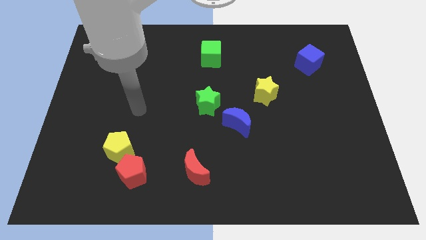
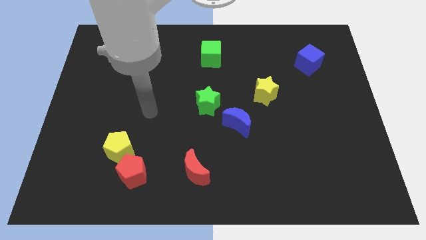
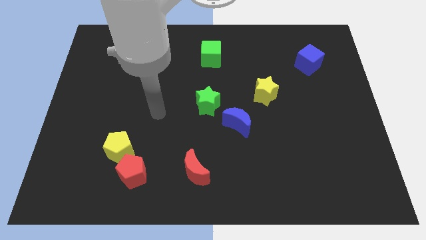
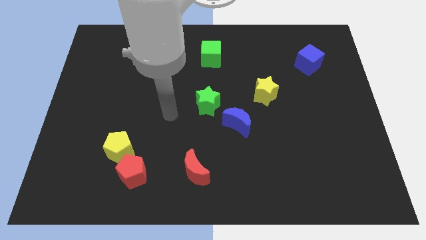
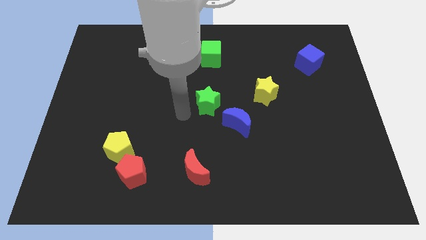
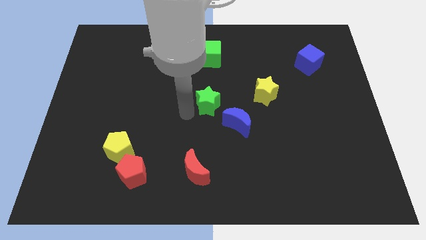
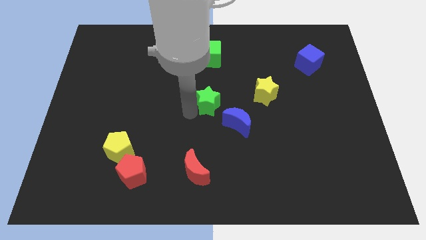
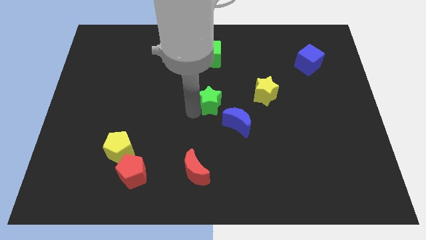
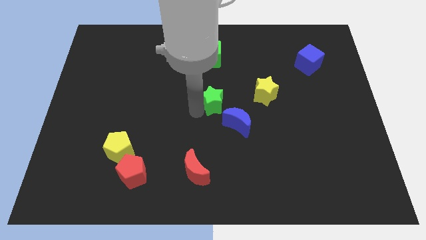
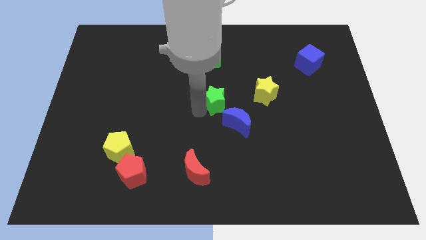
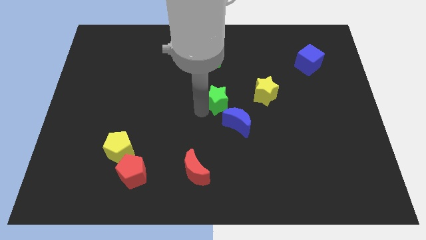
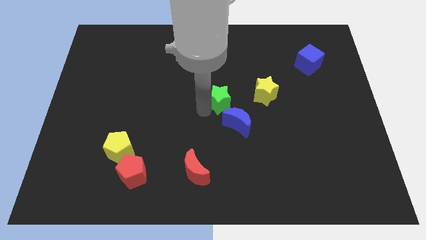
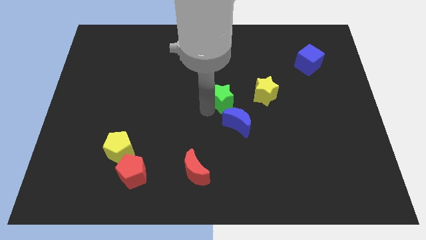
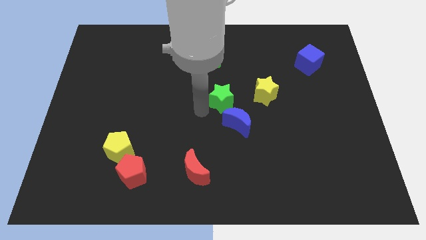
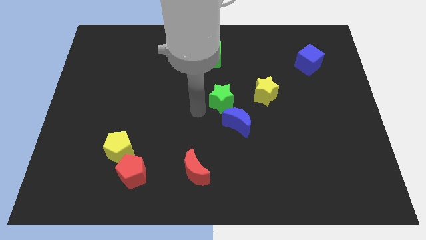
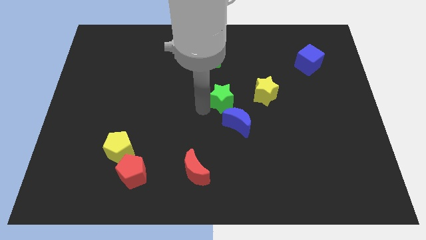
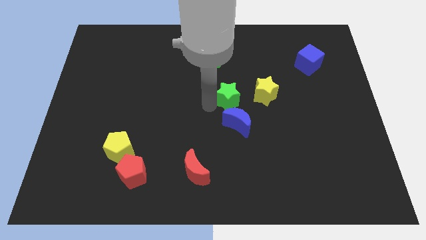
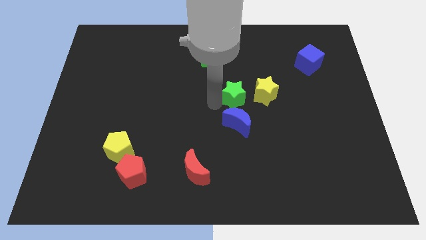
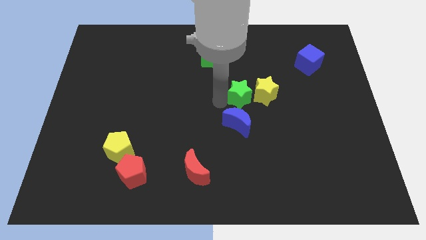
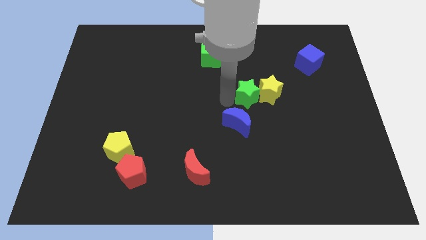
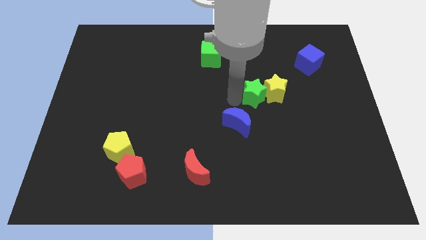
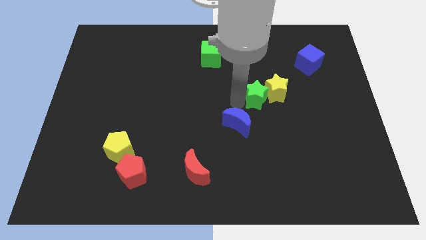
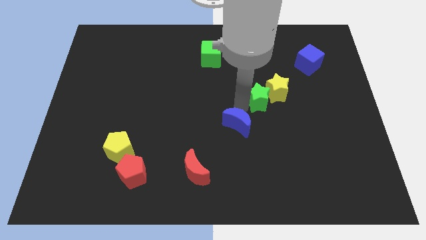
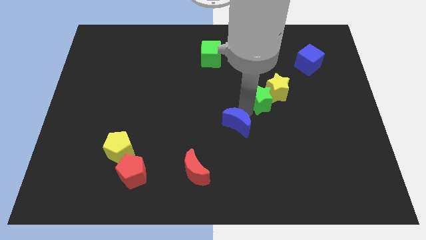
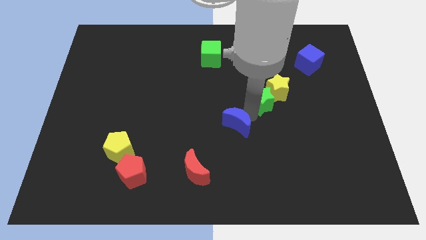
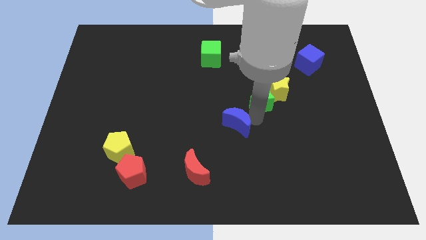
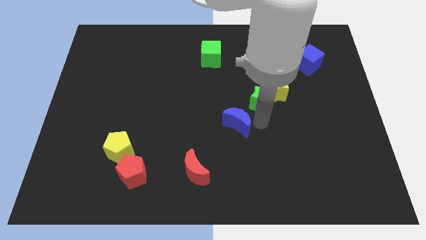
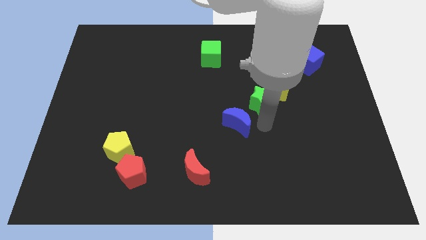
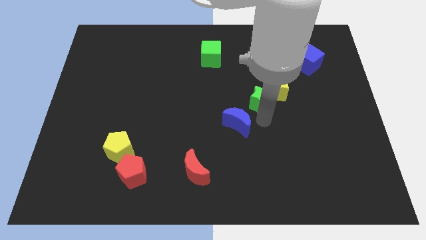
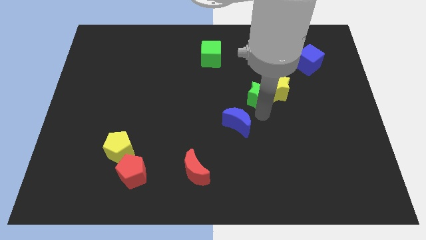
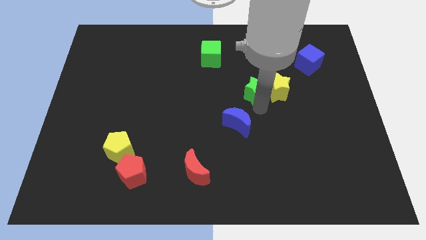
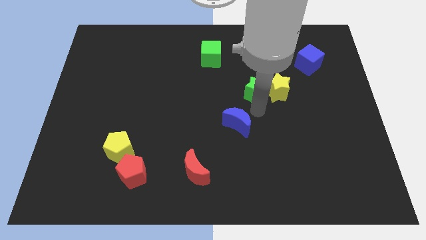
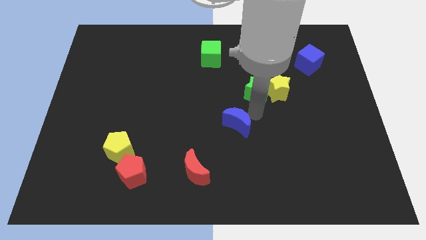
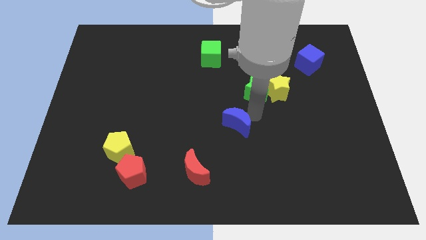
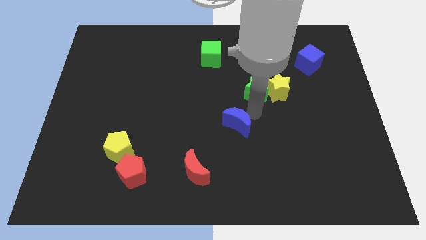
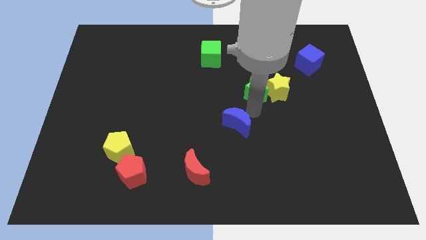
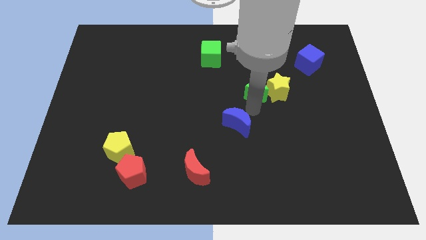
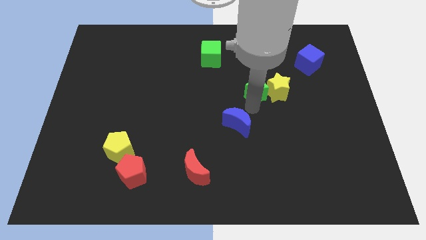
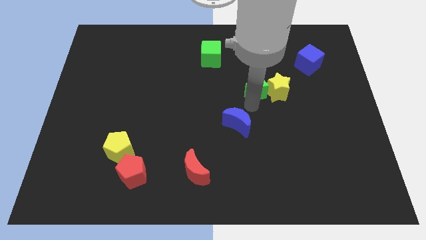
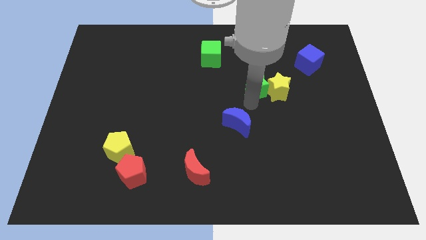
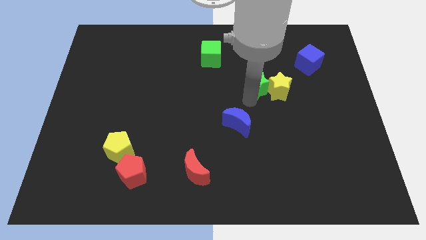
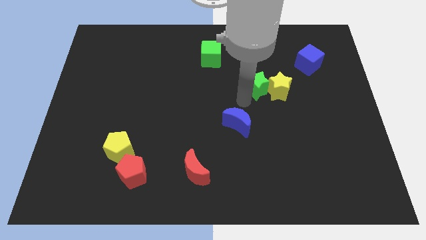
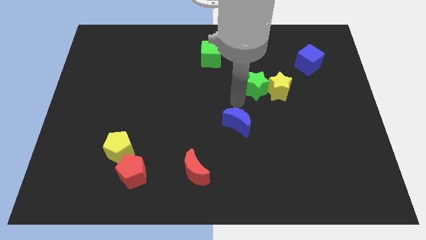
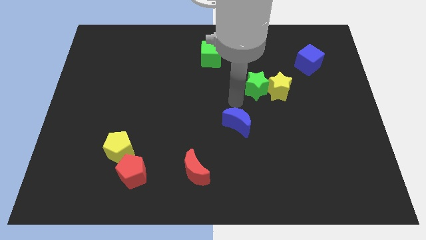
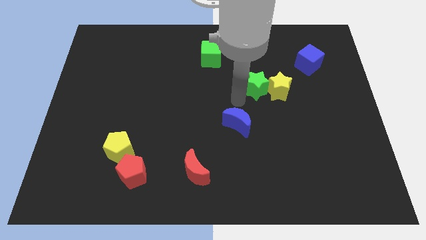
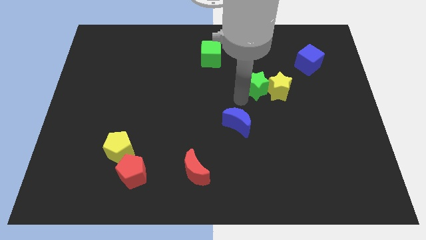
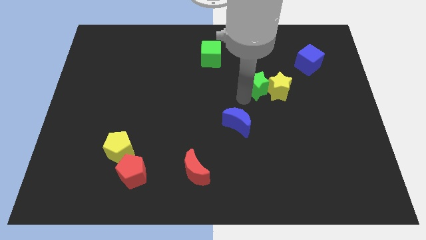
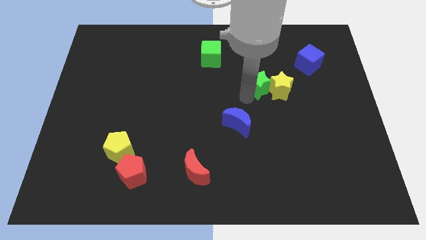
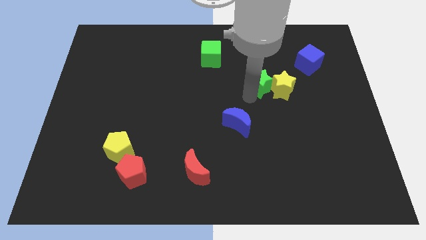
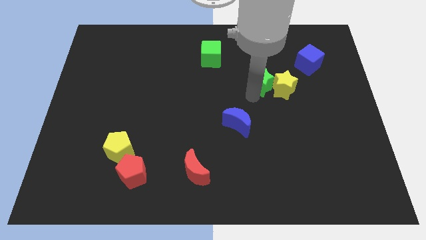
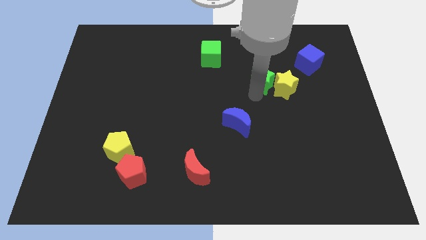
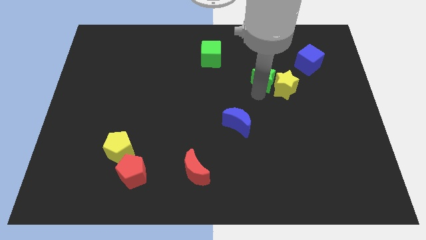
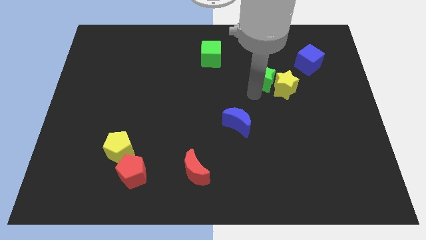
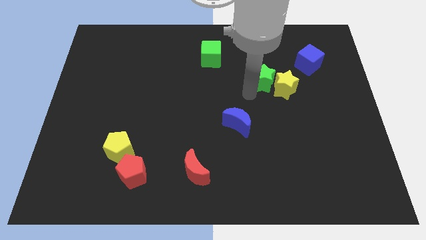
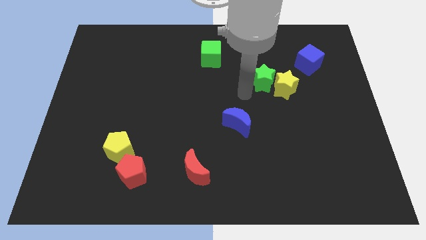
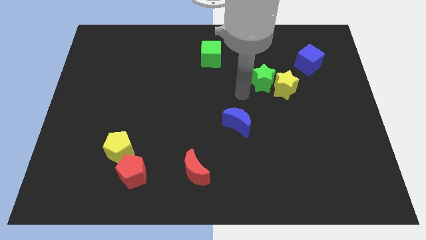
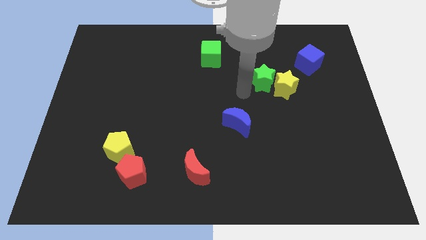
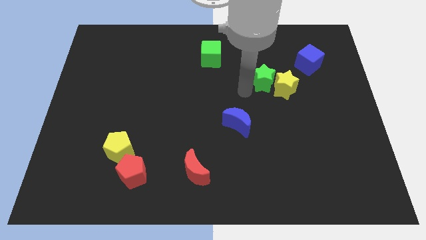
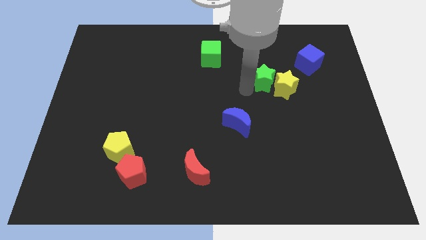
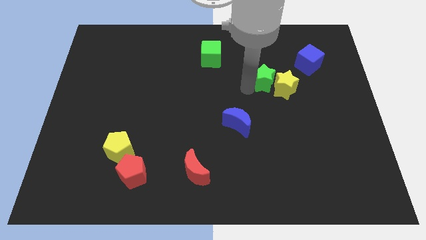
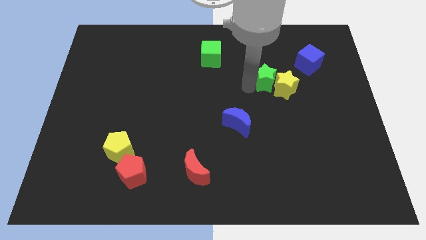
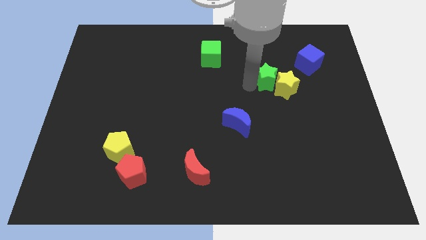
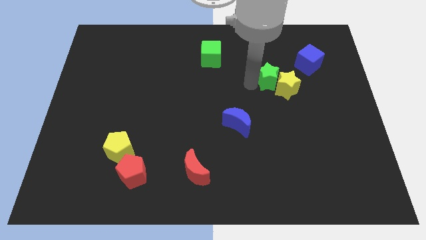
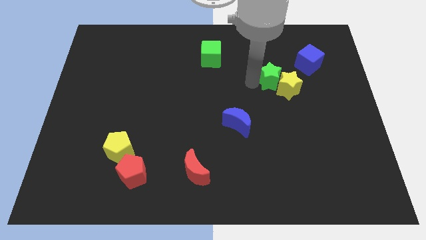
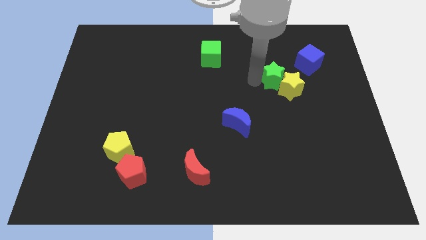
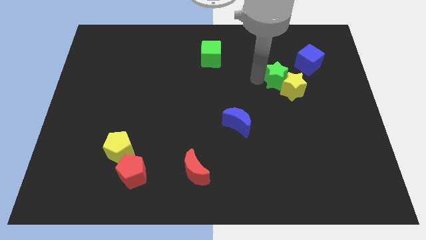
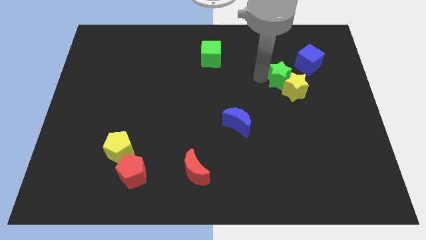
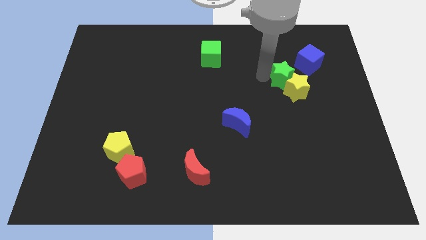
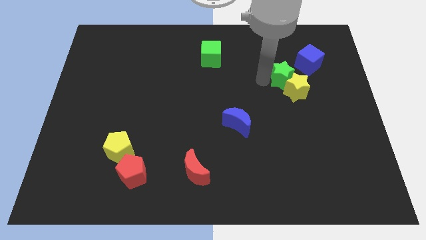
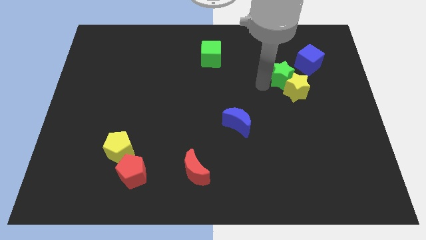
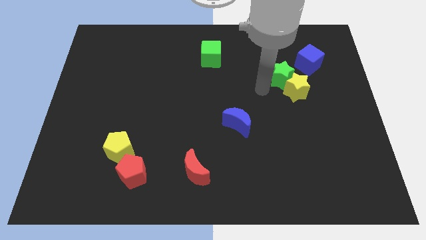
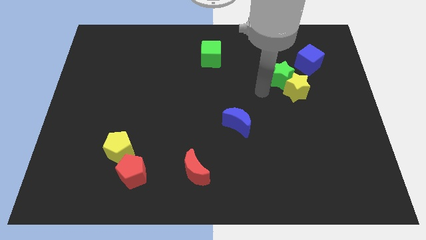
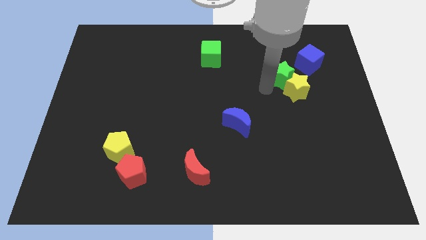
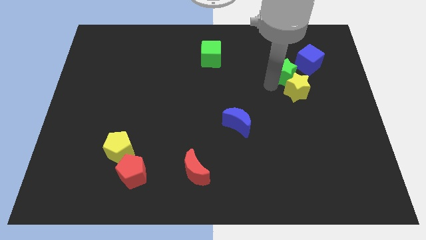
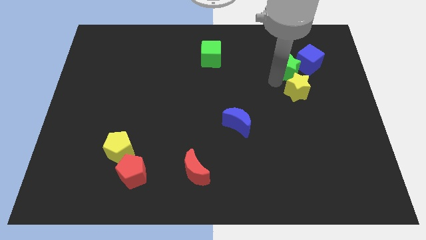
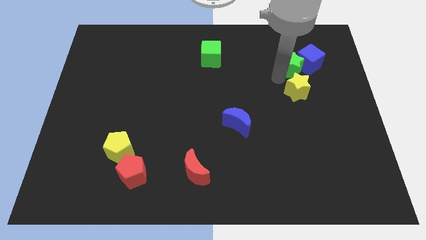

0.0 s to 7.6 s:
push the green star to the blue cube
